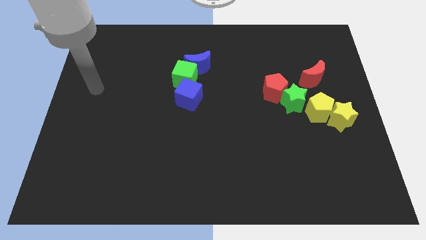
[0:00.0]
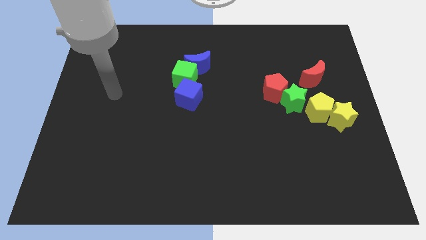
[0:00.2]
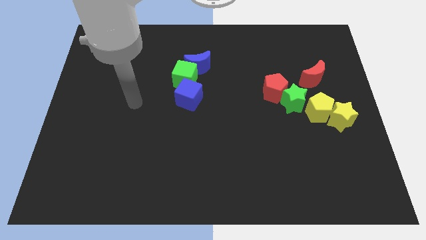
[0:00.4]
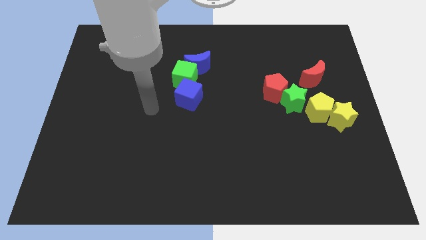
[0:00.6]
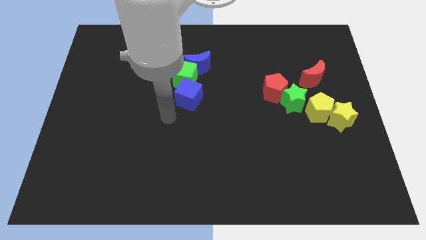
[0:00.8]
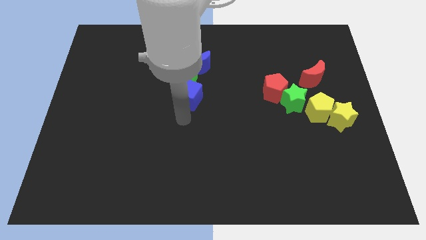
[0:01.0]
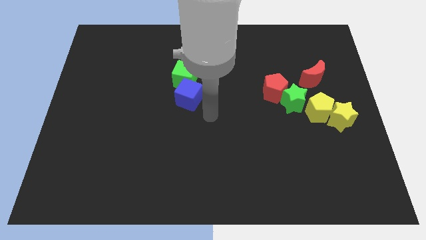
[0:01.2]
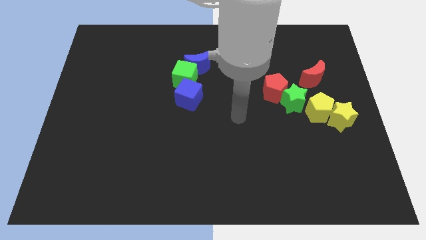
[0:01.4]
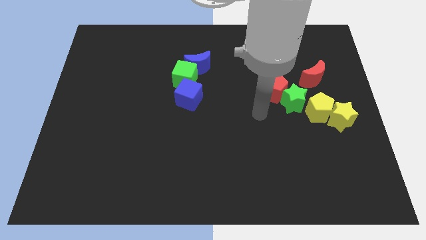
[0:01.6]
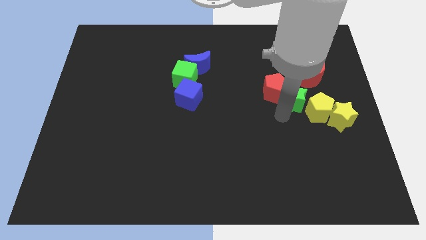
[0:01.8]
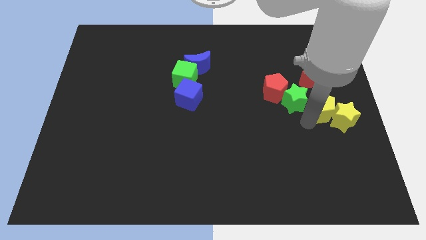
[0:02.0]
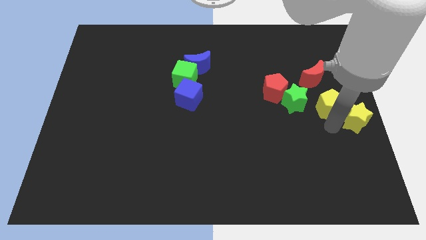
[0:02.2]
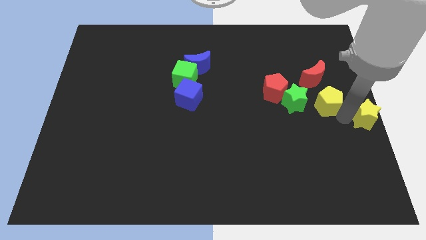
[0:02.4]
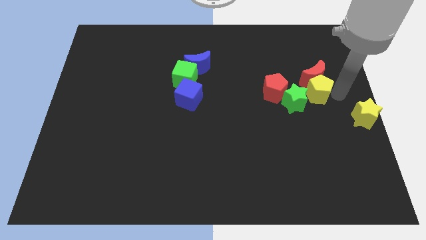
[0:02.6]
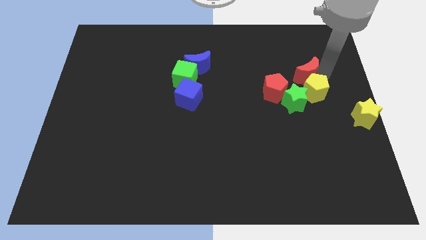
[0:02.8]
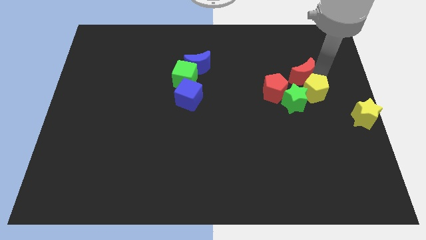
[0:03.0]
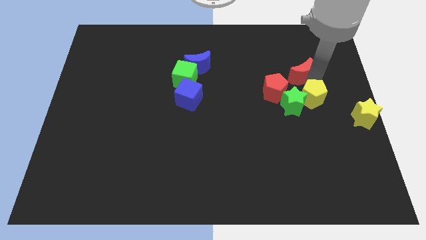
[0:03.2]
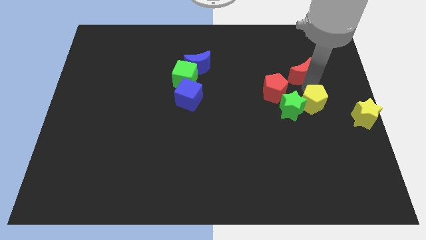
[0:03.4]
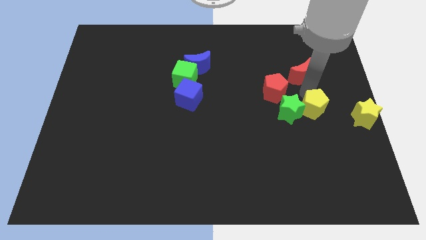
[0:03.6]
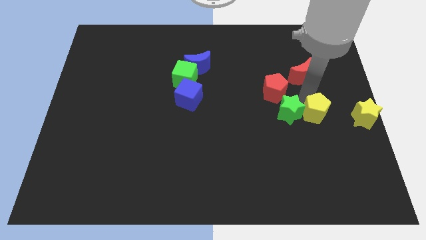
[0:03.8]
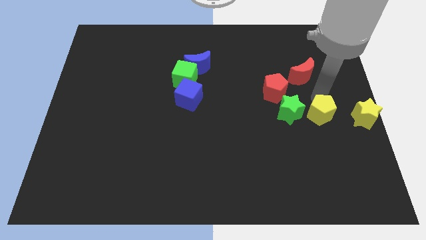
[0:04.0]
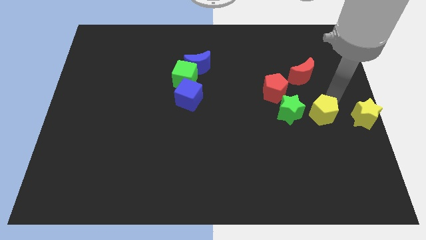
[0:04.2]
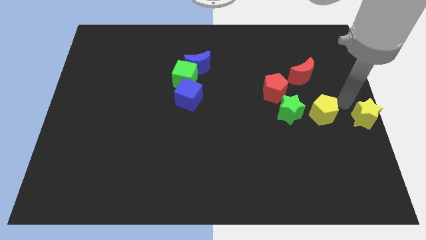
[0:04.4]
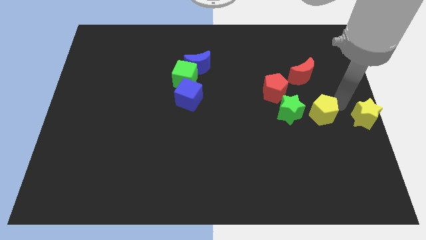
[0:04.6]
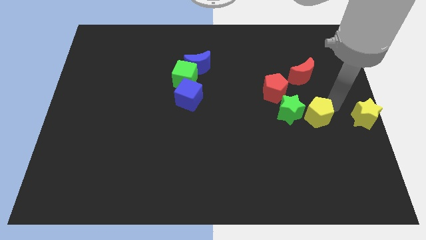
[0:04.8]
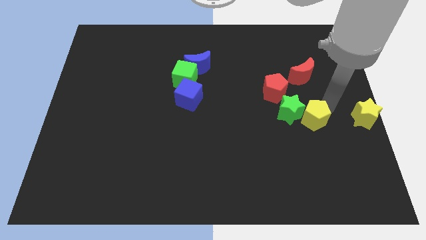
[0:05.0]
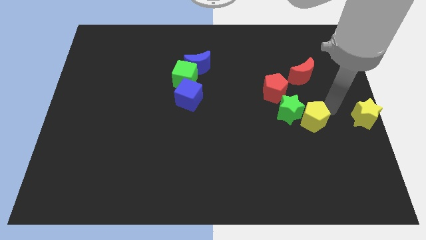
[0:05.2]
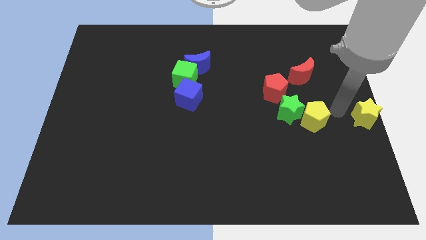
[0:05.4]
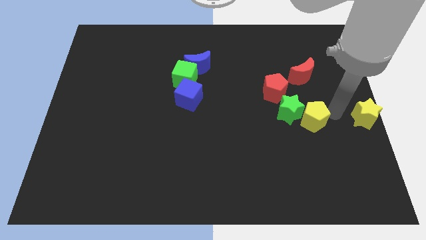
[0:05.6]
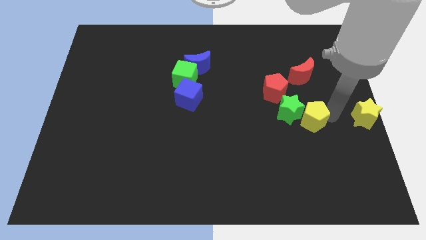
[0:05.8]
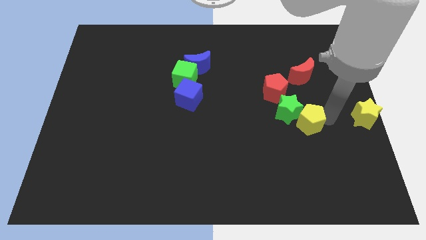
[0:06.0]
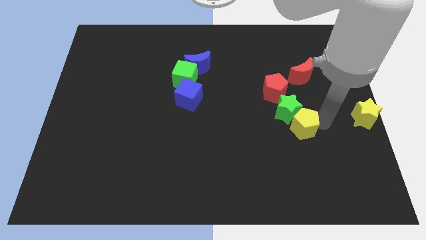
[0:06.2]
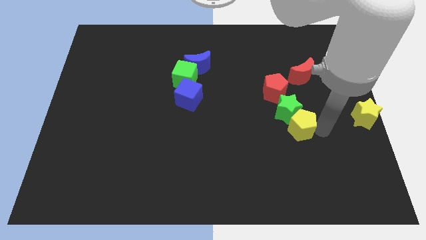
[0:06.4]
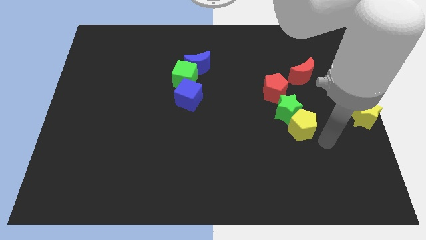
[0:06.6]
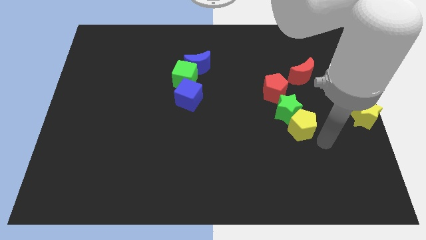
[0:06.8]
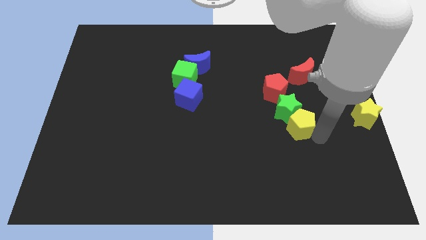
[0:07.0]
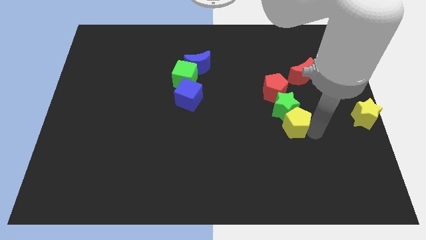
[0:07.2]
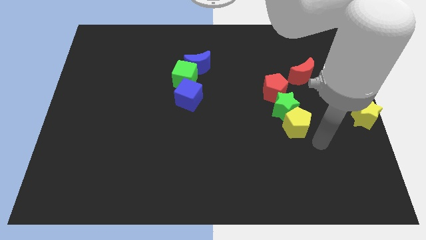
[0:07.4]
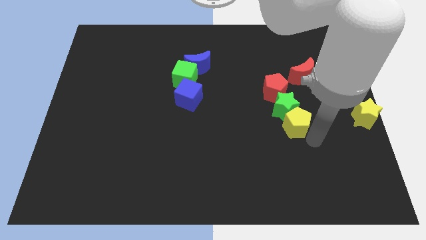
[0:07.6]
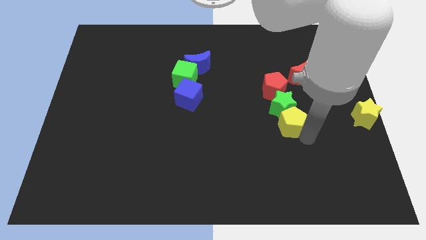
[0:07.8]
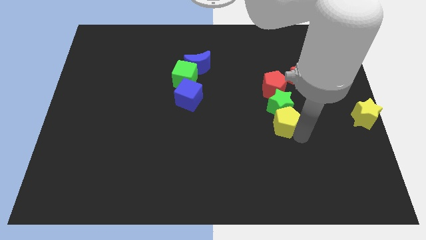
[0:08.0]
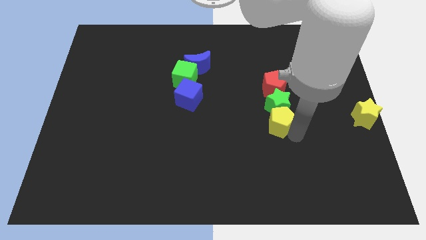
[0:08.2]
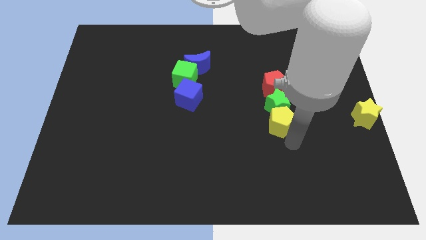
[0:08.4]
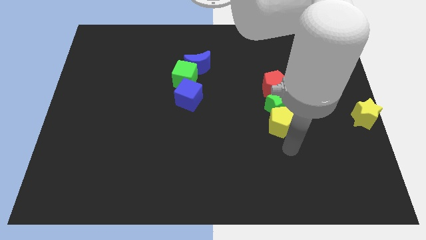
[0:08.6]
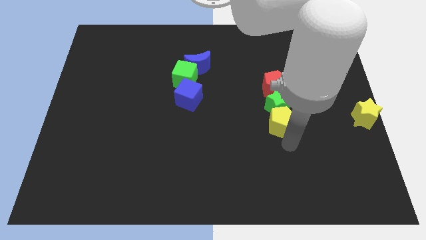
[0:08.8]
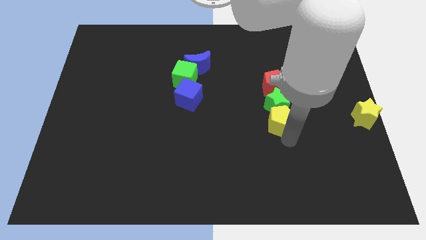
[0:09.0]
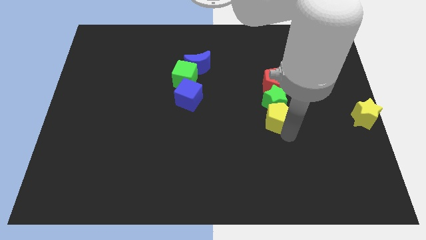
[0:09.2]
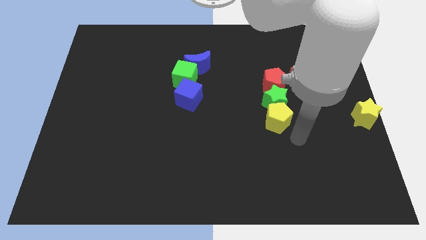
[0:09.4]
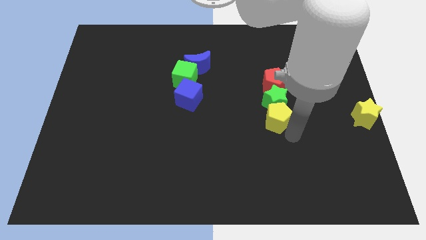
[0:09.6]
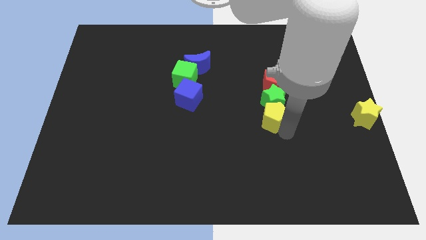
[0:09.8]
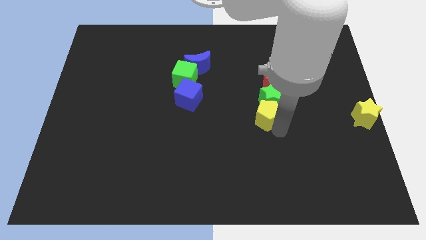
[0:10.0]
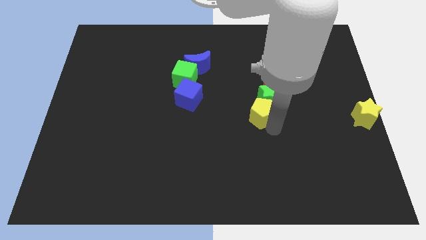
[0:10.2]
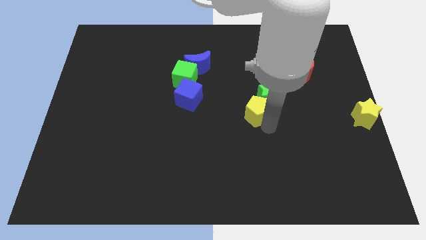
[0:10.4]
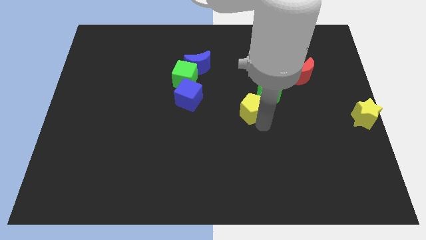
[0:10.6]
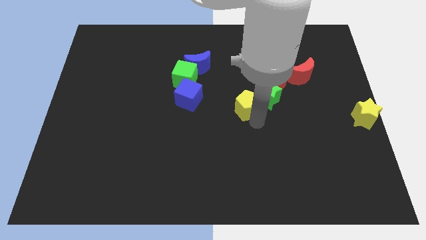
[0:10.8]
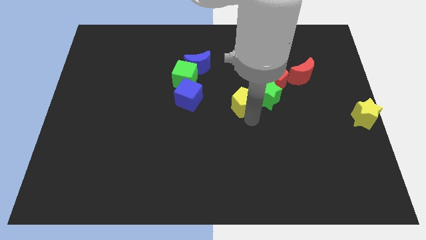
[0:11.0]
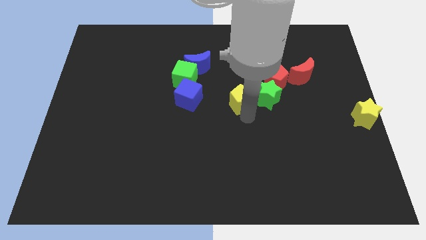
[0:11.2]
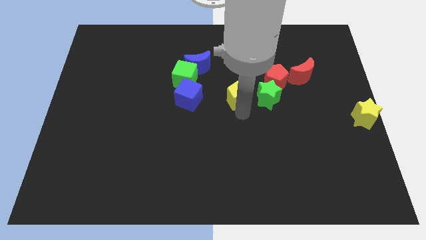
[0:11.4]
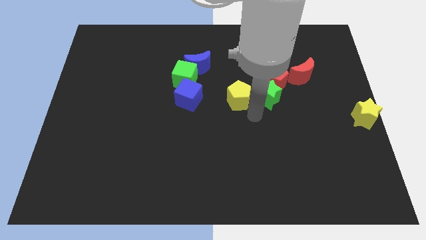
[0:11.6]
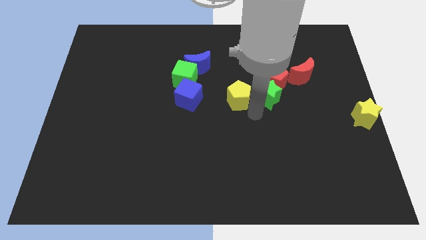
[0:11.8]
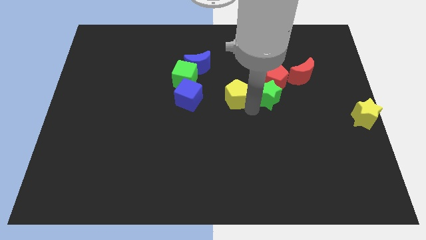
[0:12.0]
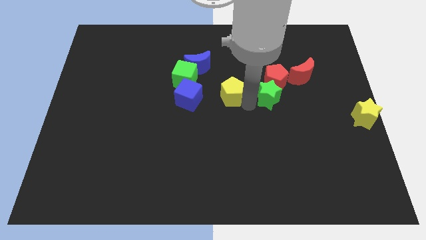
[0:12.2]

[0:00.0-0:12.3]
move the yellow pentagon diagonally down and to the right of the blue moon

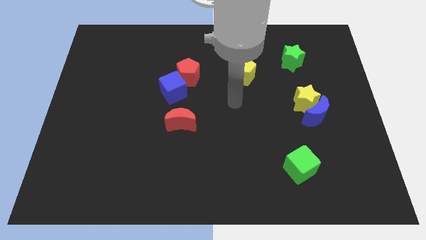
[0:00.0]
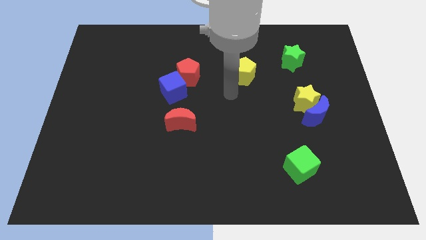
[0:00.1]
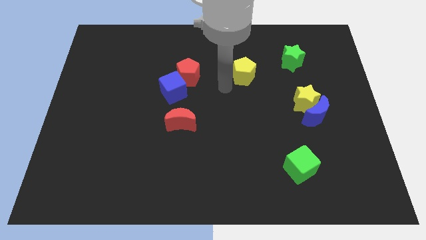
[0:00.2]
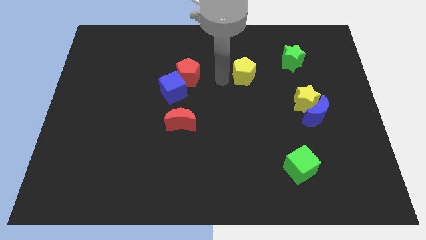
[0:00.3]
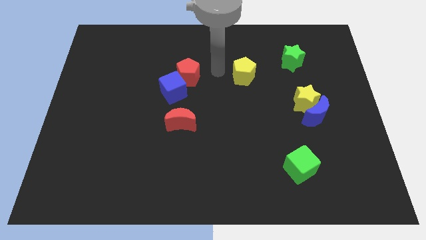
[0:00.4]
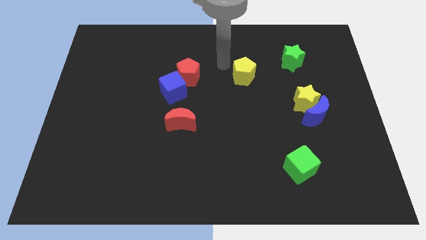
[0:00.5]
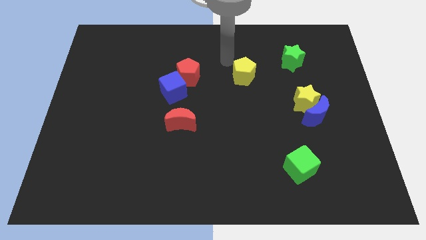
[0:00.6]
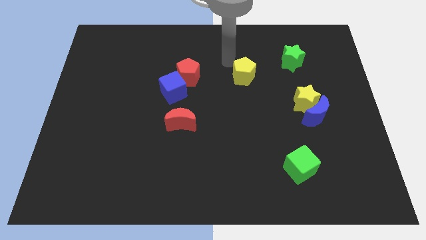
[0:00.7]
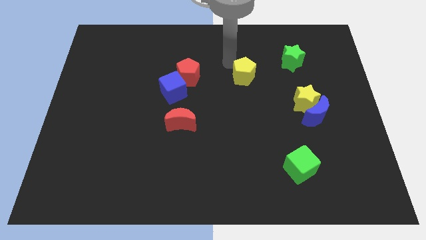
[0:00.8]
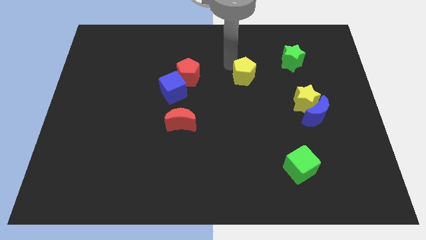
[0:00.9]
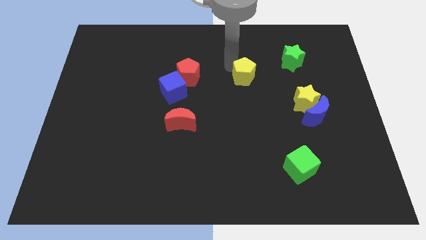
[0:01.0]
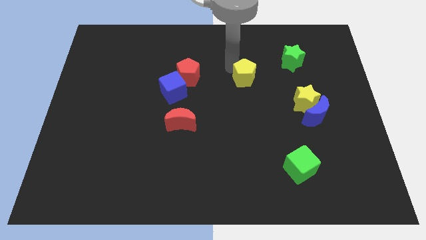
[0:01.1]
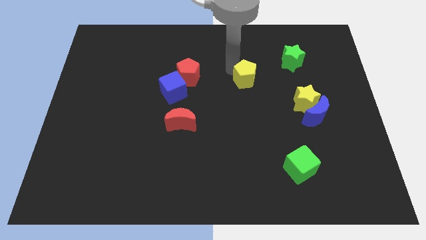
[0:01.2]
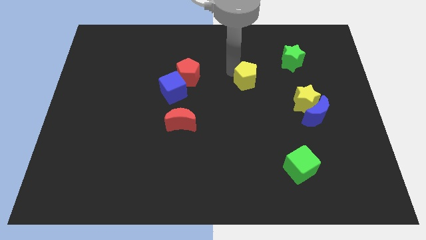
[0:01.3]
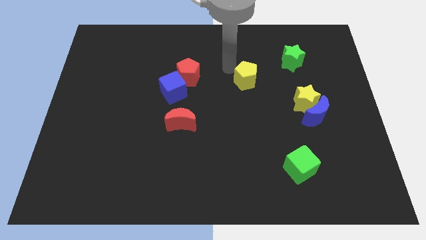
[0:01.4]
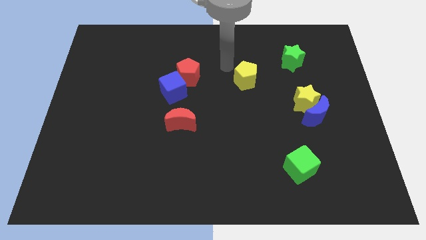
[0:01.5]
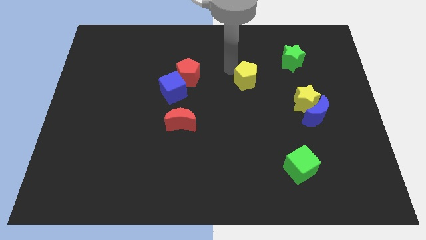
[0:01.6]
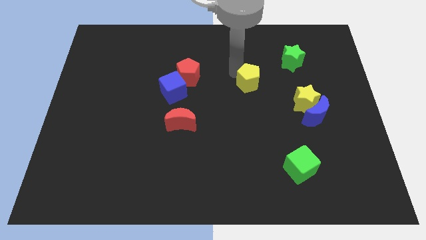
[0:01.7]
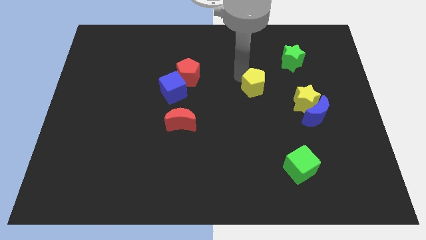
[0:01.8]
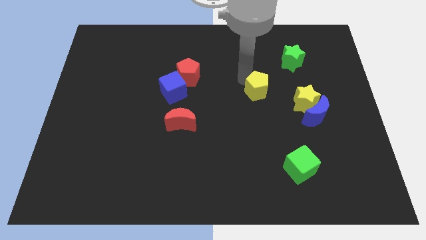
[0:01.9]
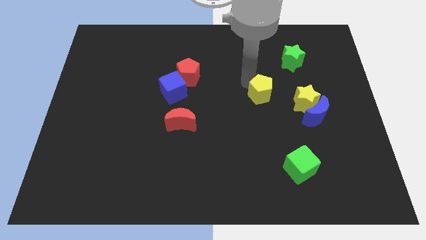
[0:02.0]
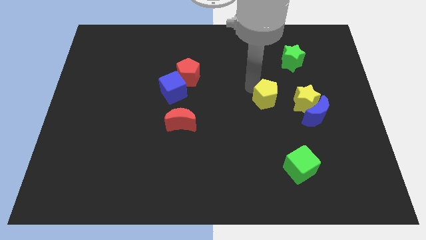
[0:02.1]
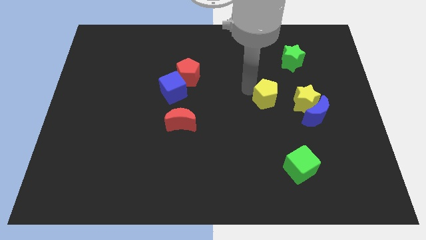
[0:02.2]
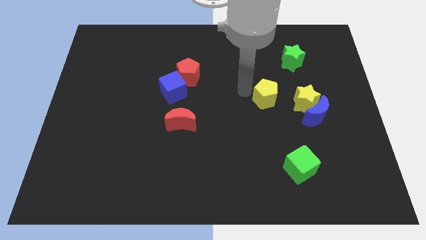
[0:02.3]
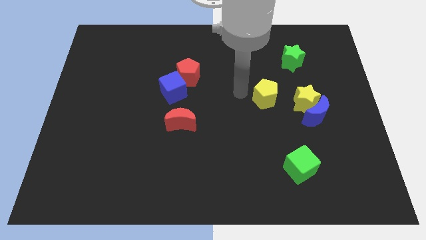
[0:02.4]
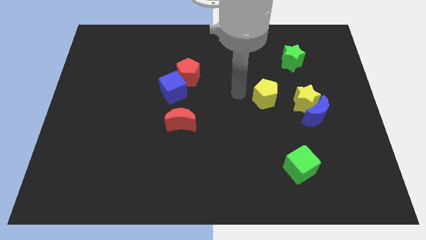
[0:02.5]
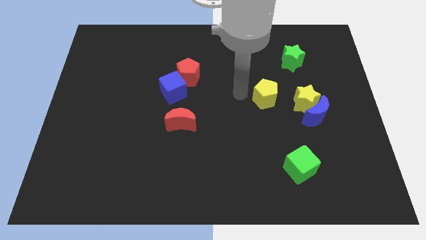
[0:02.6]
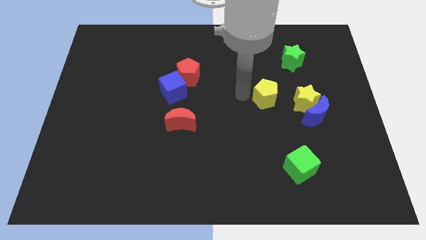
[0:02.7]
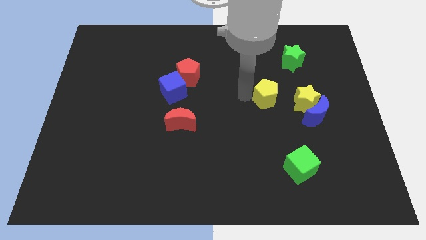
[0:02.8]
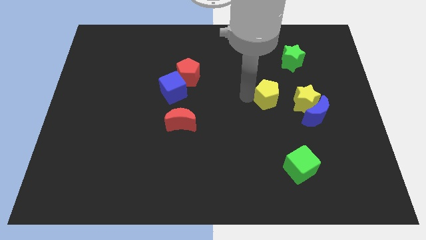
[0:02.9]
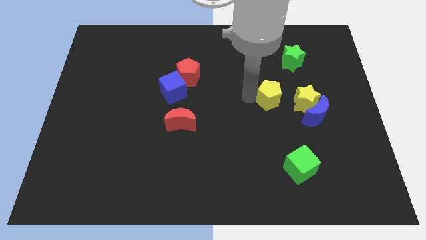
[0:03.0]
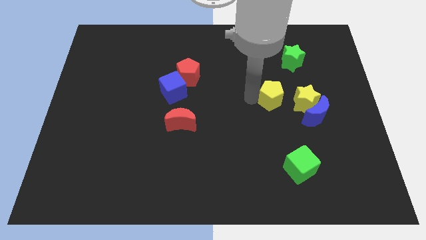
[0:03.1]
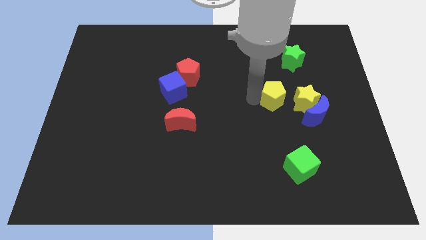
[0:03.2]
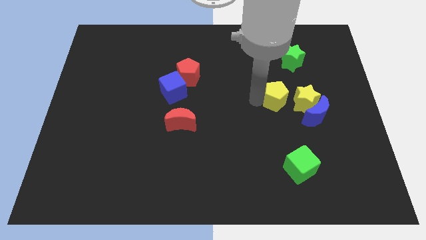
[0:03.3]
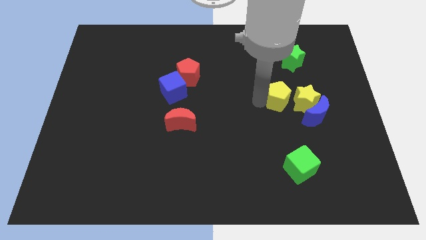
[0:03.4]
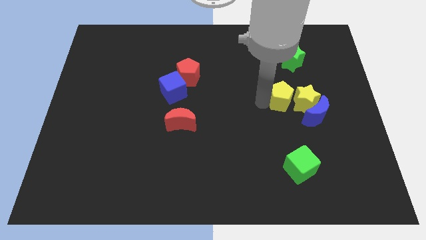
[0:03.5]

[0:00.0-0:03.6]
slide the yellow pentagon to the bottom side of the green star
